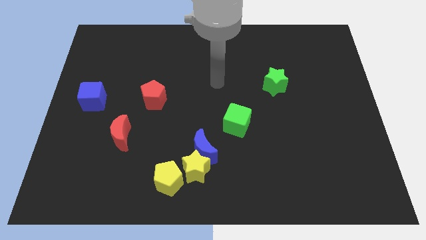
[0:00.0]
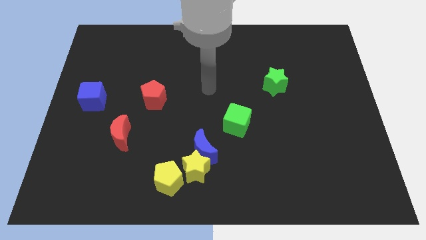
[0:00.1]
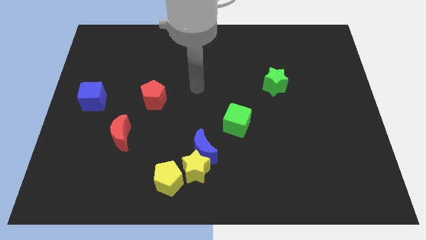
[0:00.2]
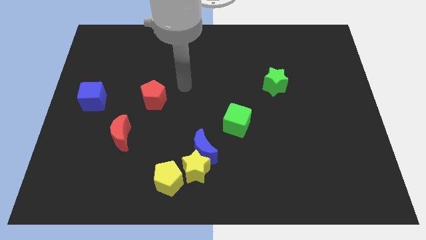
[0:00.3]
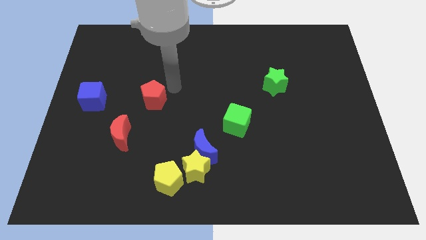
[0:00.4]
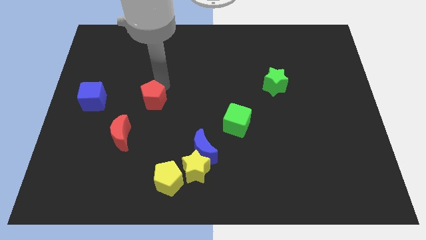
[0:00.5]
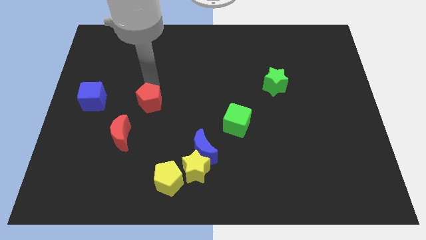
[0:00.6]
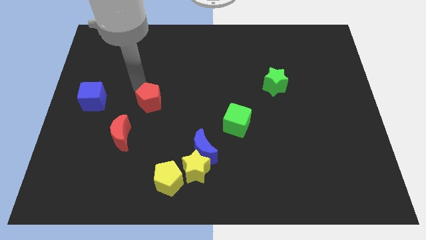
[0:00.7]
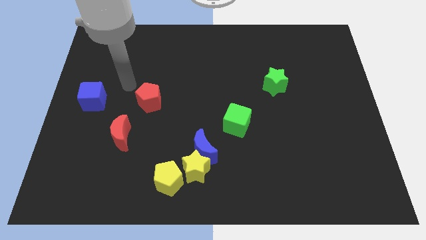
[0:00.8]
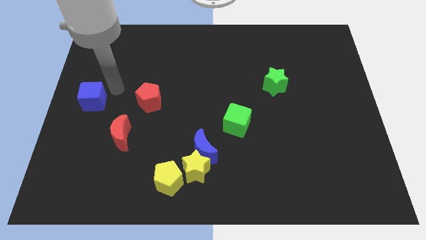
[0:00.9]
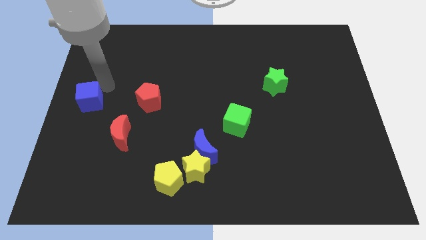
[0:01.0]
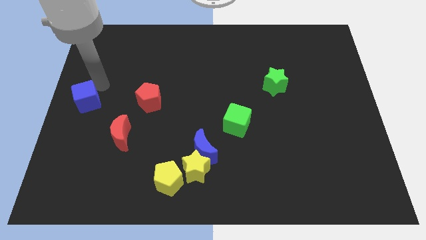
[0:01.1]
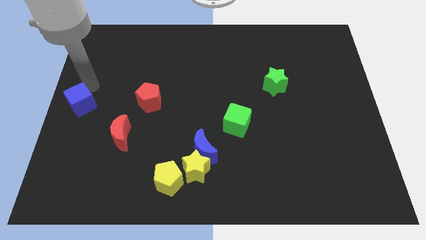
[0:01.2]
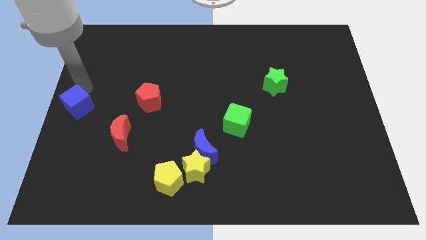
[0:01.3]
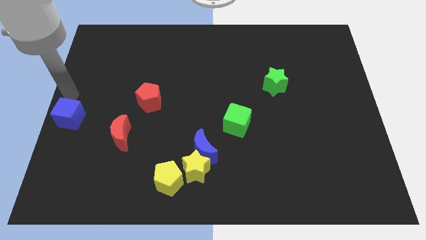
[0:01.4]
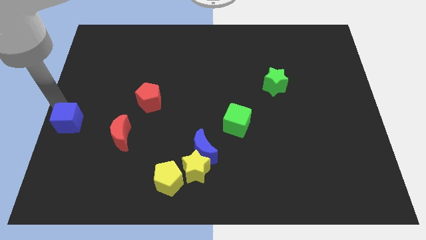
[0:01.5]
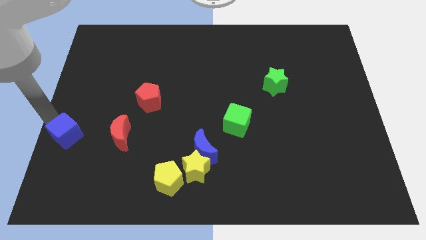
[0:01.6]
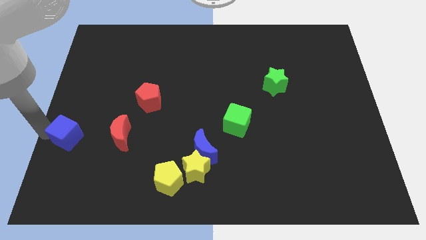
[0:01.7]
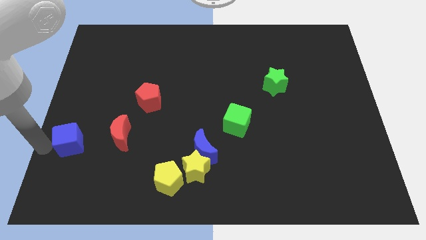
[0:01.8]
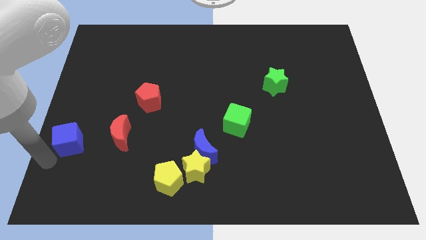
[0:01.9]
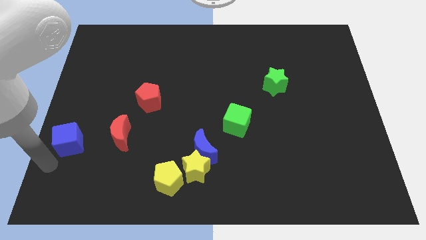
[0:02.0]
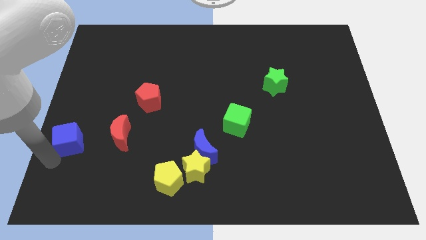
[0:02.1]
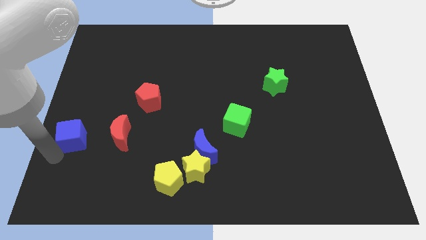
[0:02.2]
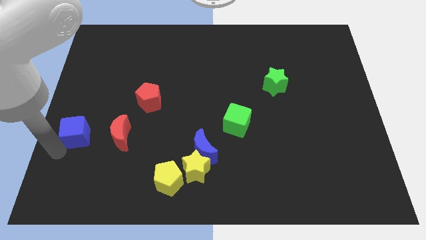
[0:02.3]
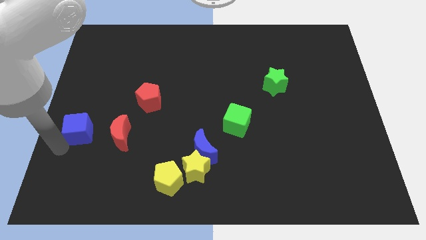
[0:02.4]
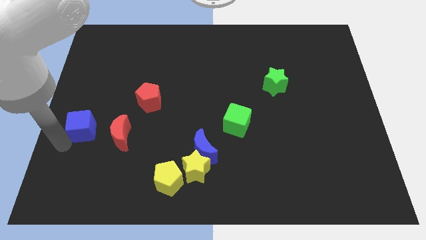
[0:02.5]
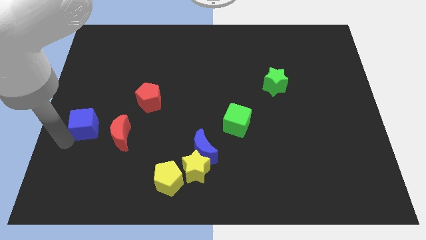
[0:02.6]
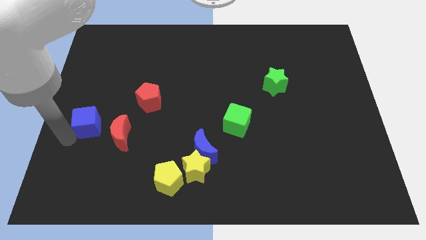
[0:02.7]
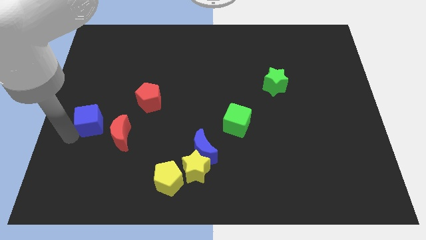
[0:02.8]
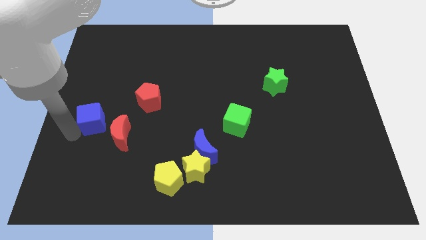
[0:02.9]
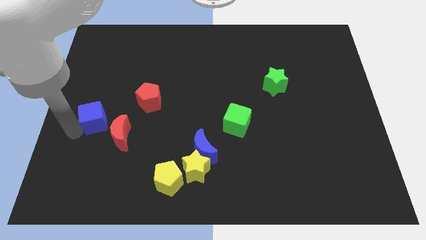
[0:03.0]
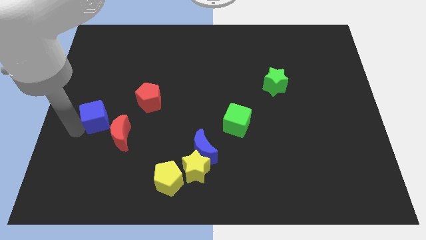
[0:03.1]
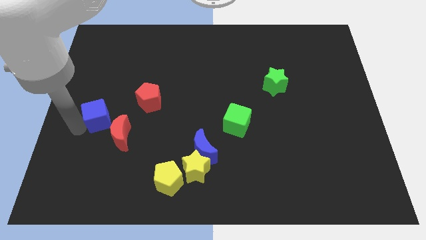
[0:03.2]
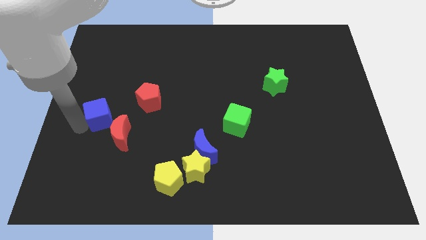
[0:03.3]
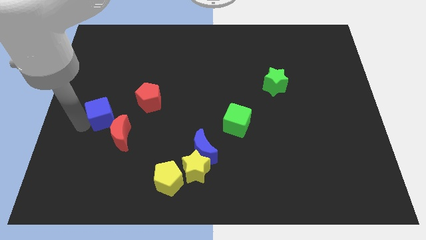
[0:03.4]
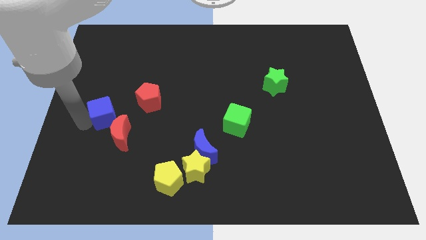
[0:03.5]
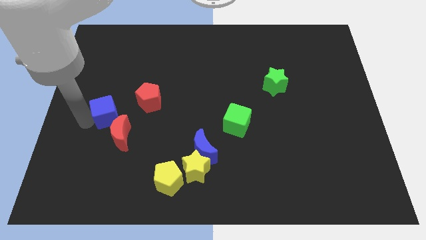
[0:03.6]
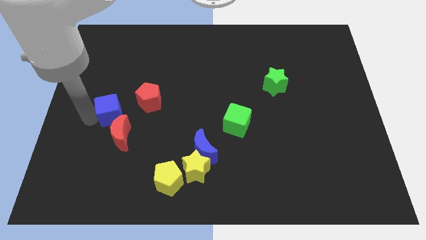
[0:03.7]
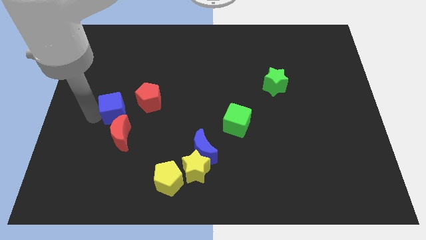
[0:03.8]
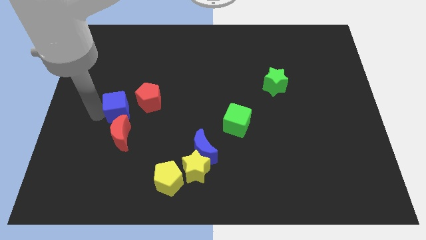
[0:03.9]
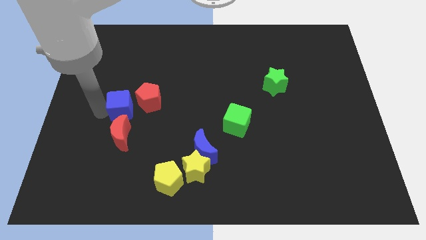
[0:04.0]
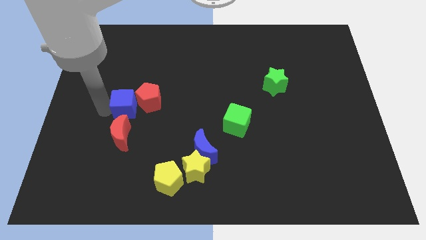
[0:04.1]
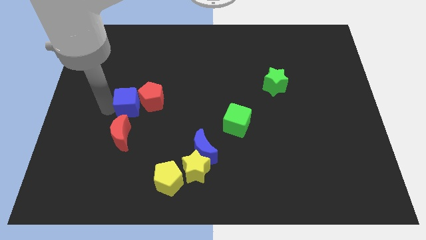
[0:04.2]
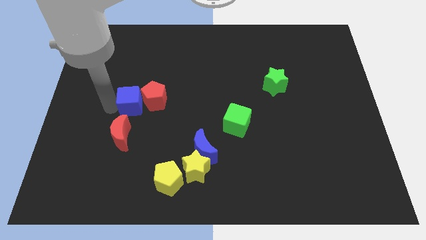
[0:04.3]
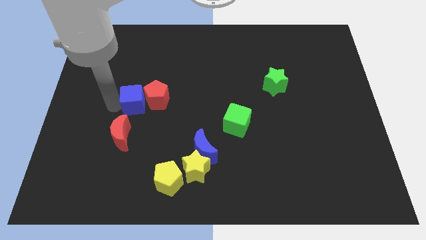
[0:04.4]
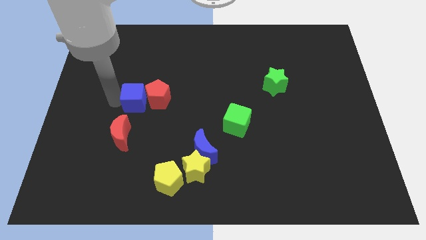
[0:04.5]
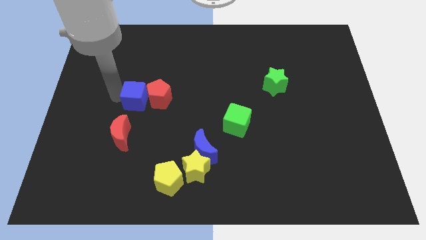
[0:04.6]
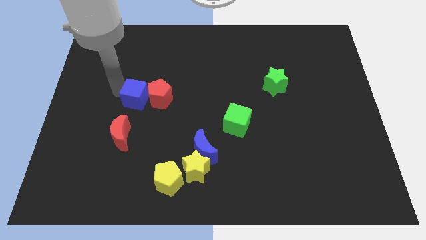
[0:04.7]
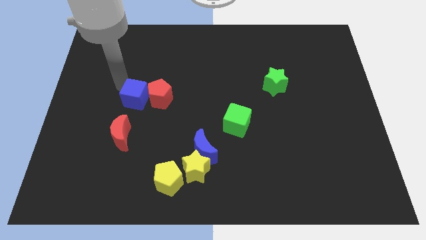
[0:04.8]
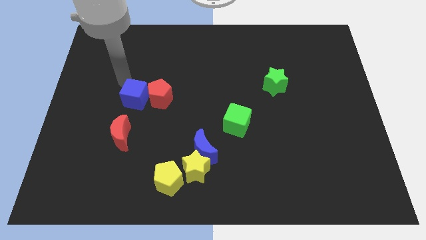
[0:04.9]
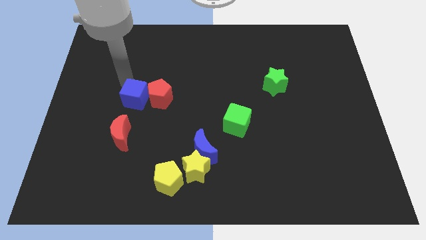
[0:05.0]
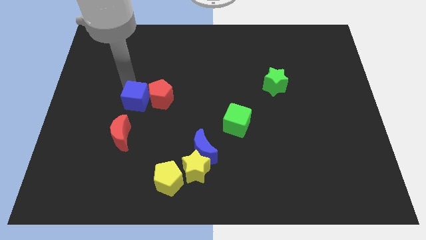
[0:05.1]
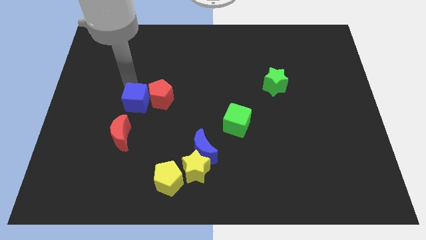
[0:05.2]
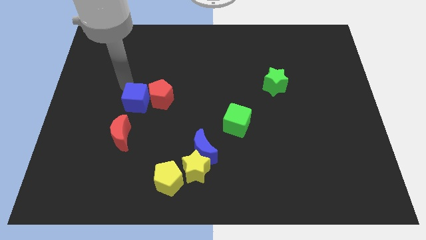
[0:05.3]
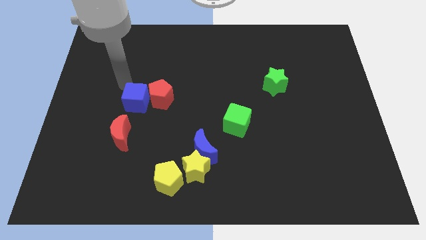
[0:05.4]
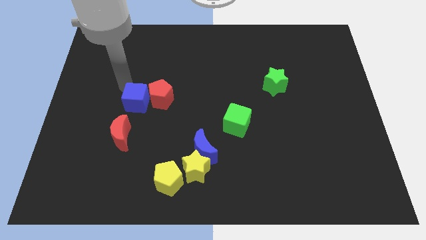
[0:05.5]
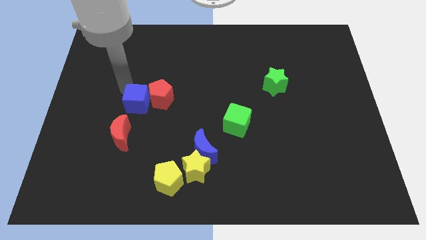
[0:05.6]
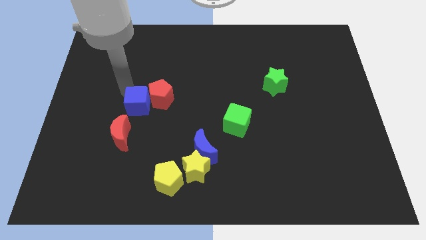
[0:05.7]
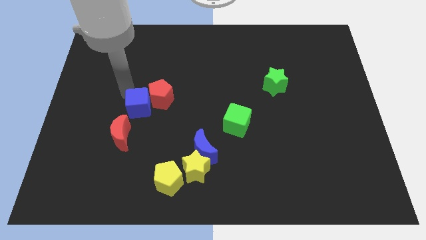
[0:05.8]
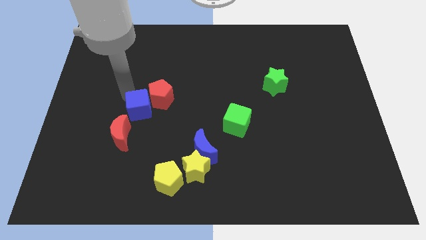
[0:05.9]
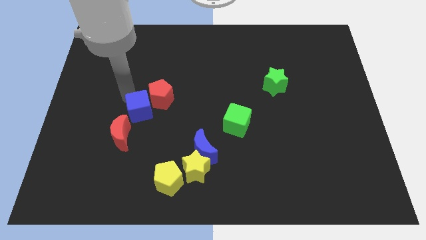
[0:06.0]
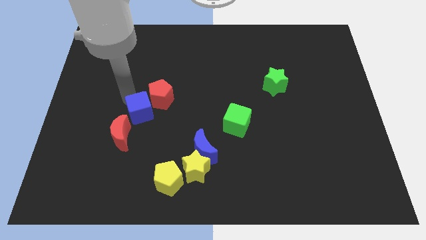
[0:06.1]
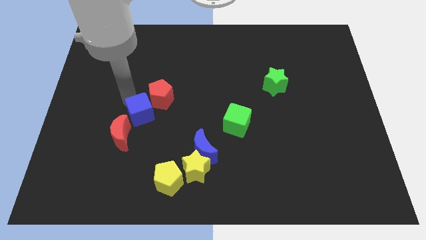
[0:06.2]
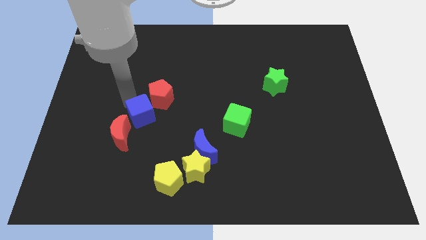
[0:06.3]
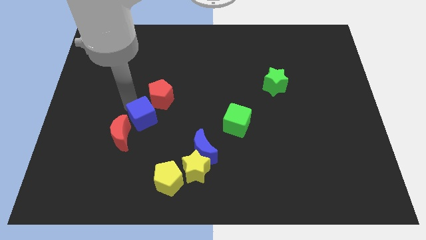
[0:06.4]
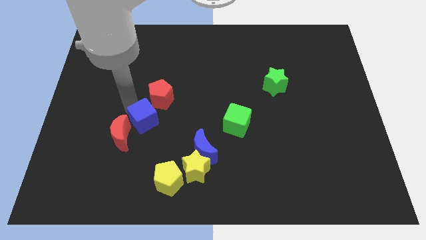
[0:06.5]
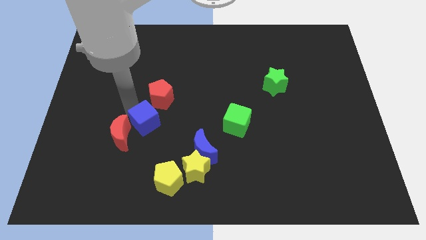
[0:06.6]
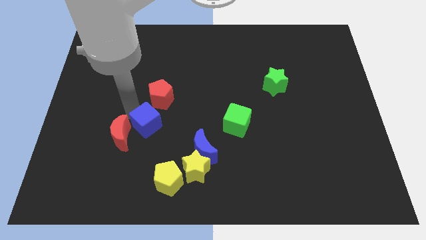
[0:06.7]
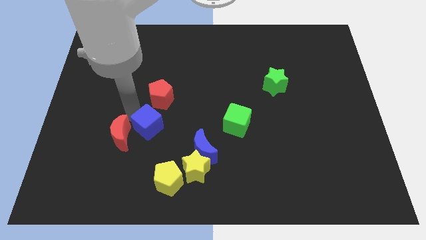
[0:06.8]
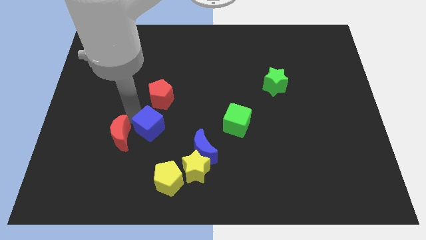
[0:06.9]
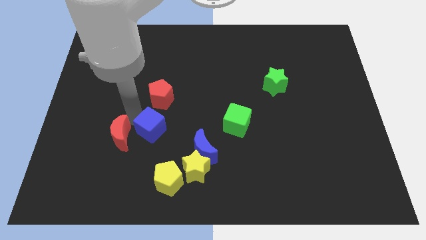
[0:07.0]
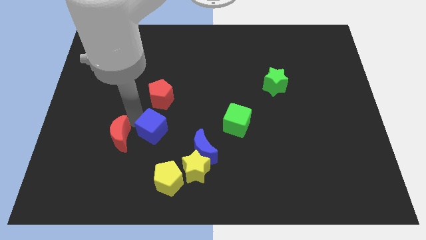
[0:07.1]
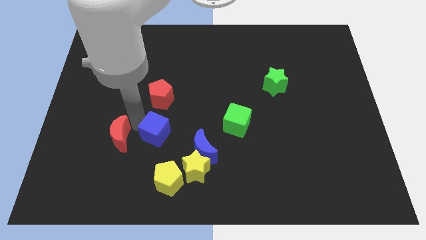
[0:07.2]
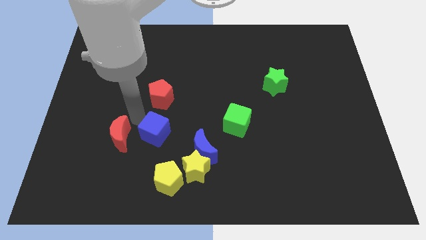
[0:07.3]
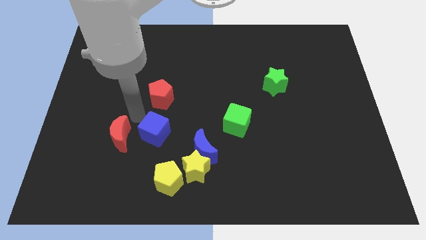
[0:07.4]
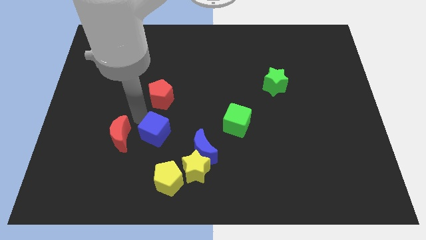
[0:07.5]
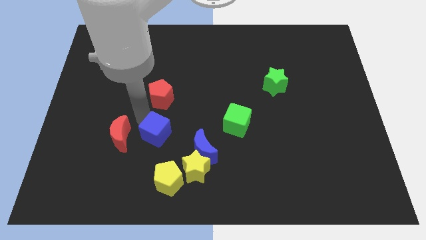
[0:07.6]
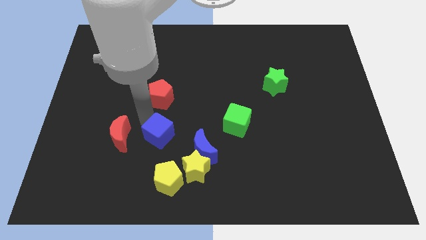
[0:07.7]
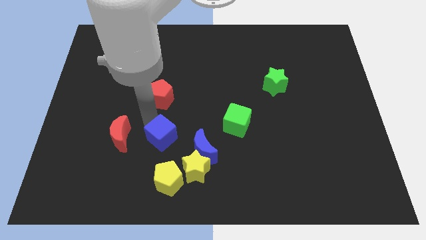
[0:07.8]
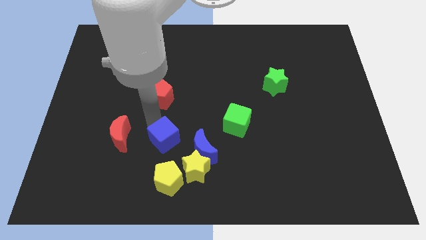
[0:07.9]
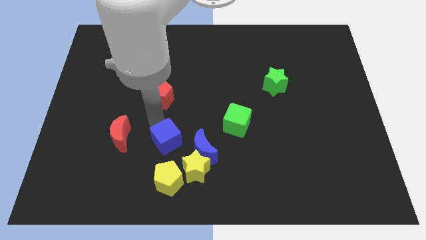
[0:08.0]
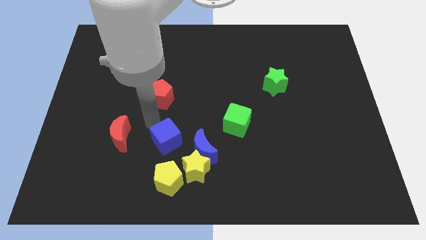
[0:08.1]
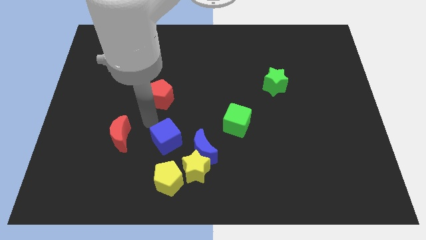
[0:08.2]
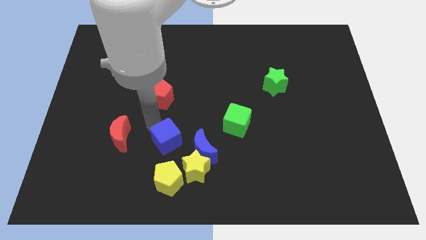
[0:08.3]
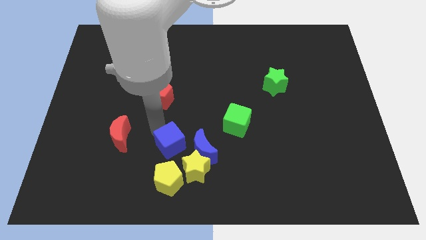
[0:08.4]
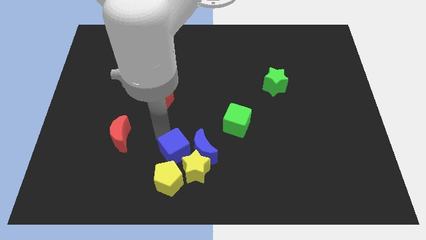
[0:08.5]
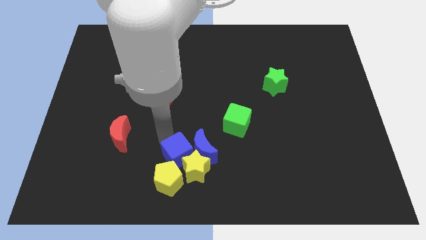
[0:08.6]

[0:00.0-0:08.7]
put the blue cube close to the yellow star
